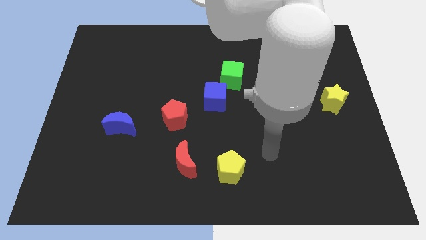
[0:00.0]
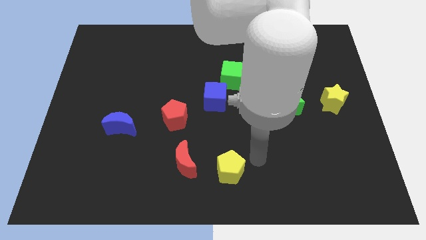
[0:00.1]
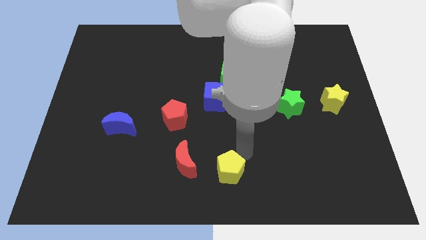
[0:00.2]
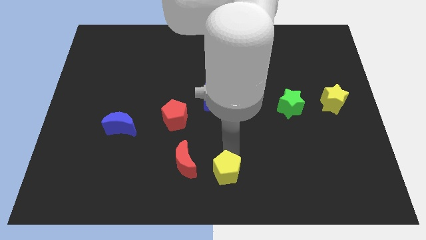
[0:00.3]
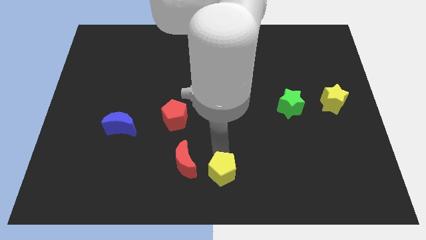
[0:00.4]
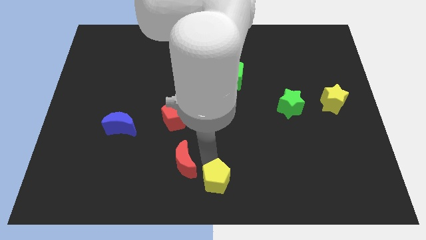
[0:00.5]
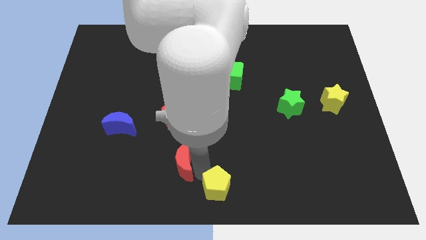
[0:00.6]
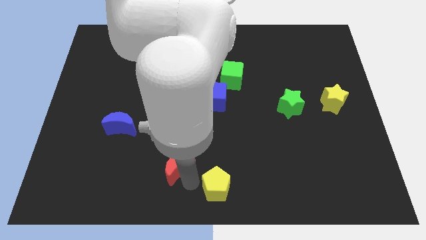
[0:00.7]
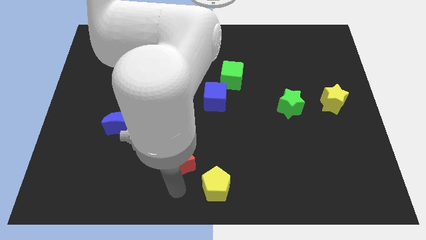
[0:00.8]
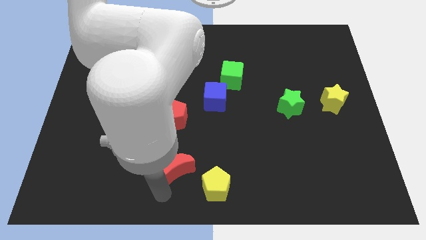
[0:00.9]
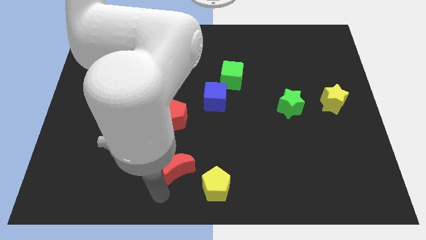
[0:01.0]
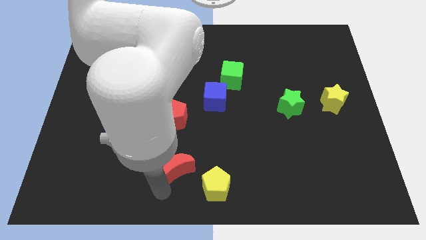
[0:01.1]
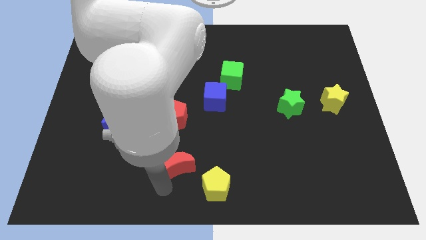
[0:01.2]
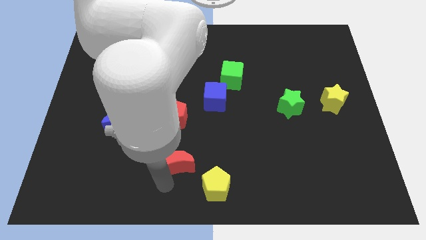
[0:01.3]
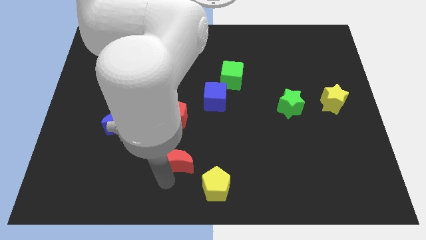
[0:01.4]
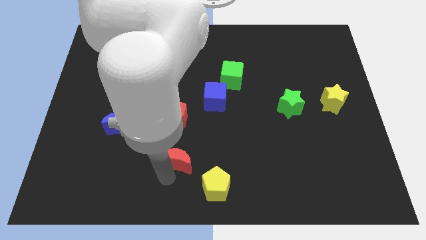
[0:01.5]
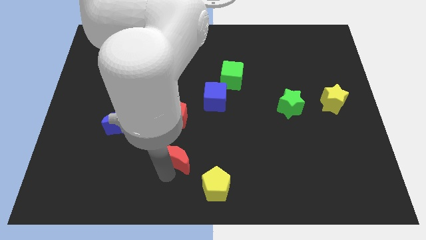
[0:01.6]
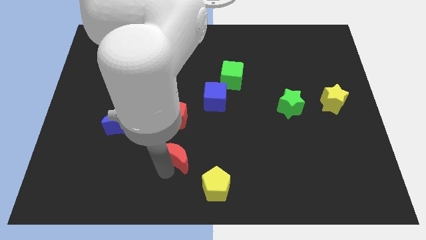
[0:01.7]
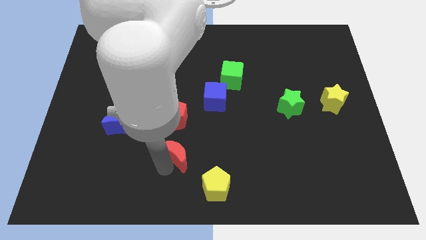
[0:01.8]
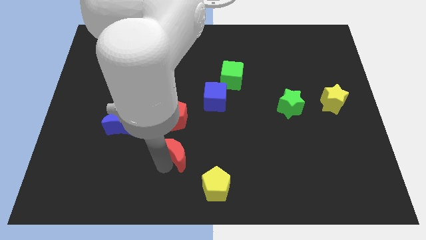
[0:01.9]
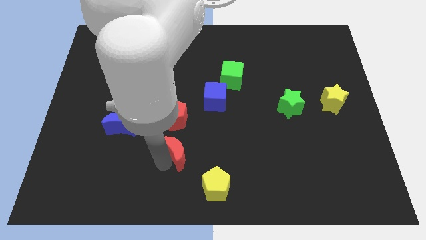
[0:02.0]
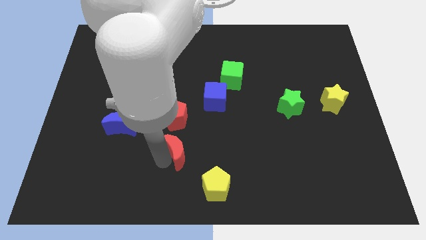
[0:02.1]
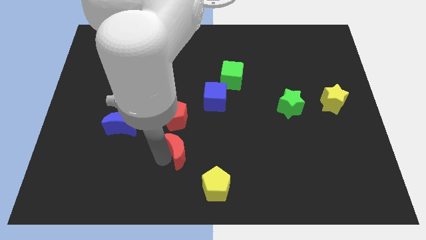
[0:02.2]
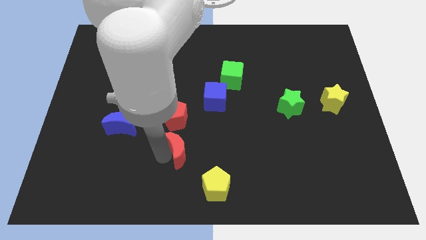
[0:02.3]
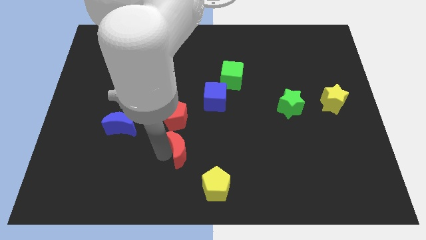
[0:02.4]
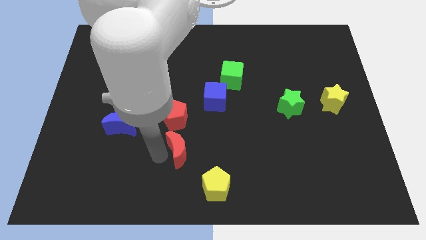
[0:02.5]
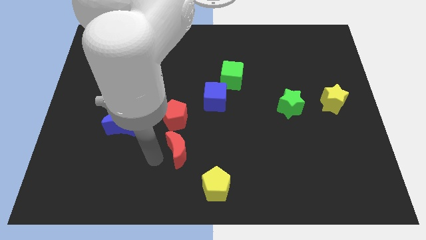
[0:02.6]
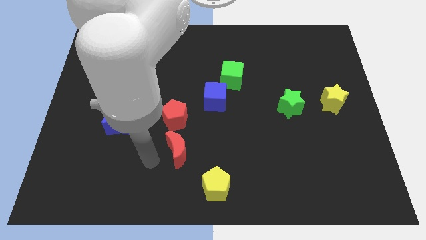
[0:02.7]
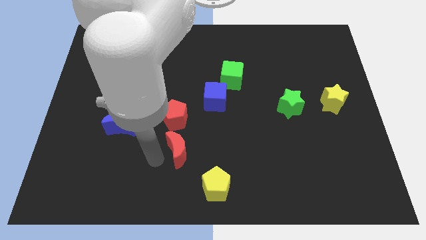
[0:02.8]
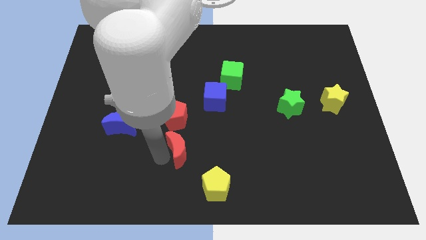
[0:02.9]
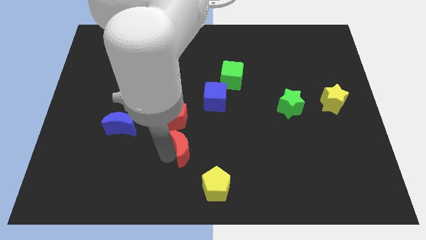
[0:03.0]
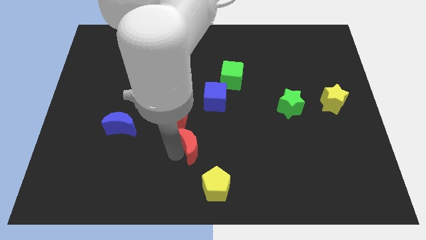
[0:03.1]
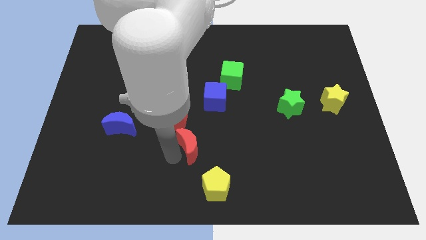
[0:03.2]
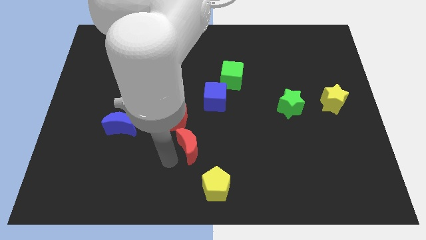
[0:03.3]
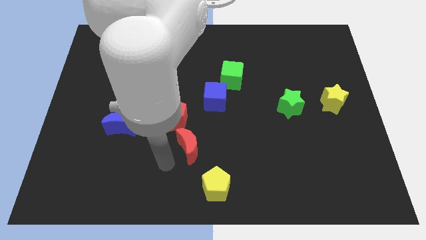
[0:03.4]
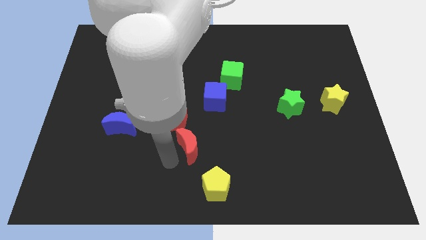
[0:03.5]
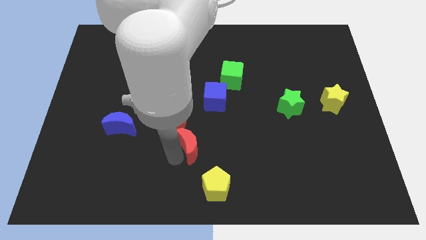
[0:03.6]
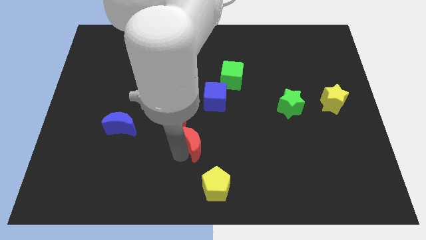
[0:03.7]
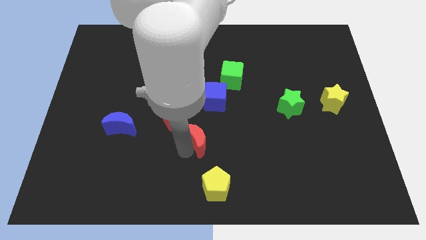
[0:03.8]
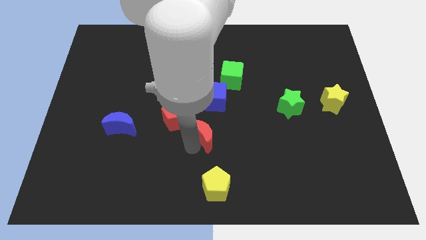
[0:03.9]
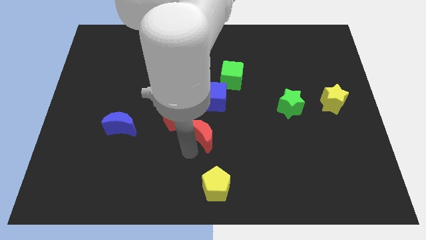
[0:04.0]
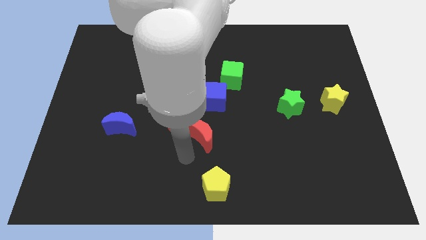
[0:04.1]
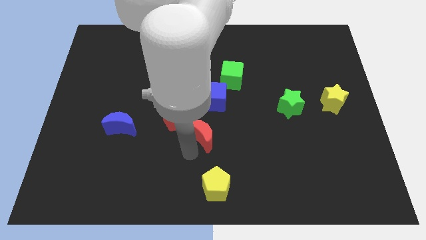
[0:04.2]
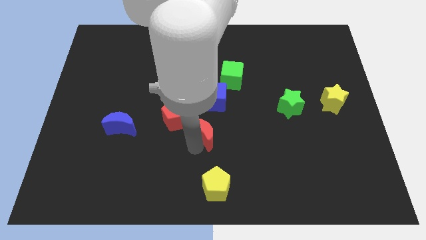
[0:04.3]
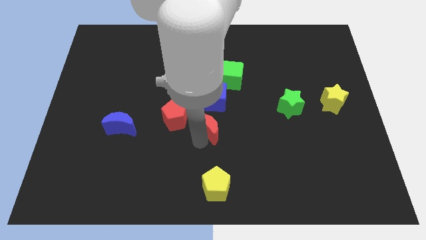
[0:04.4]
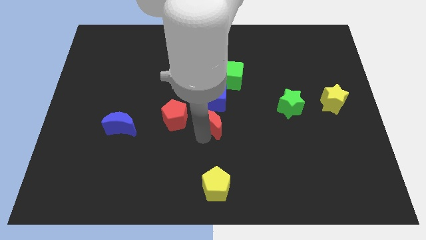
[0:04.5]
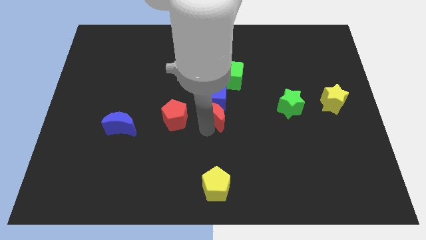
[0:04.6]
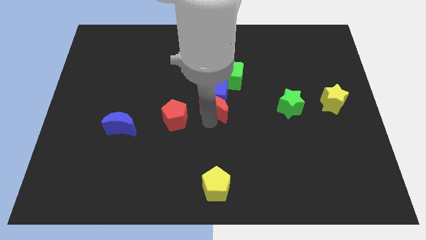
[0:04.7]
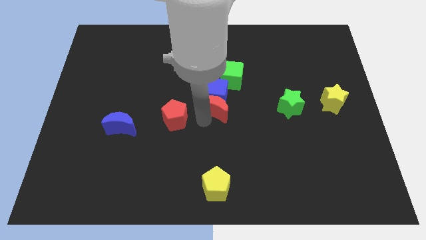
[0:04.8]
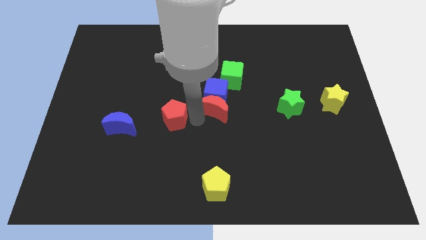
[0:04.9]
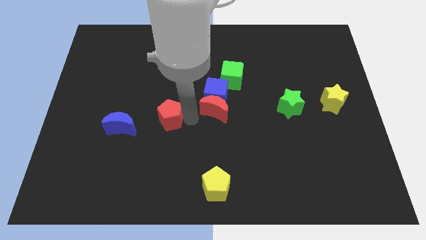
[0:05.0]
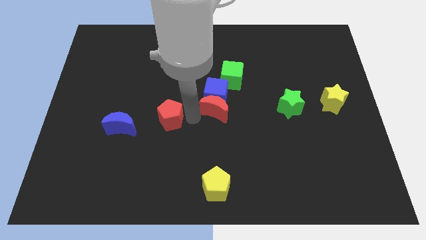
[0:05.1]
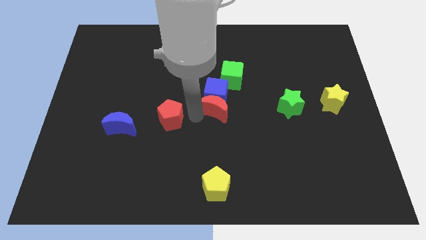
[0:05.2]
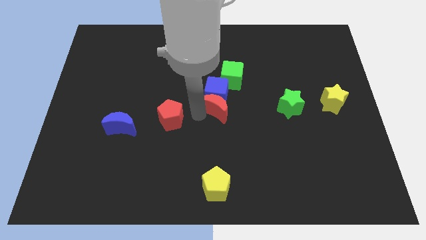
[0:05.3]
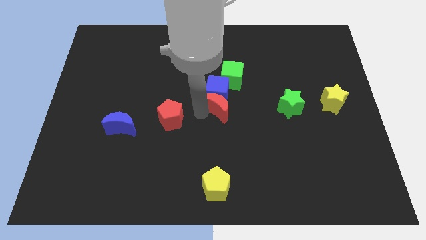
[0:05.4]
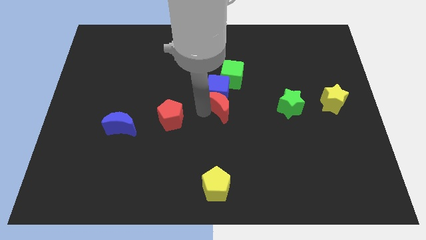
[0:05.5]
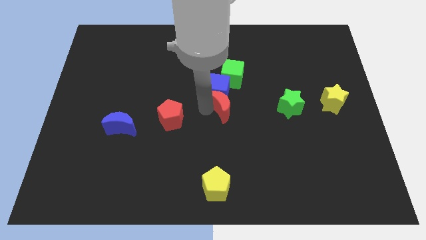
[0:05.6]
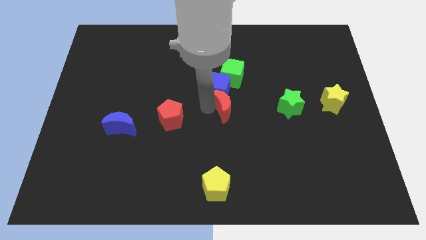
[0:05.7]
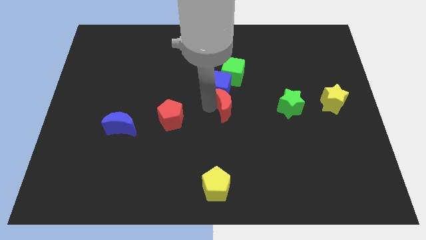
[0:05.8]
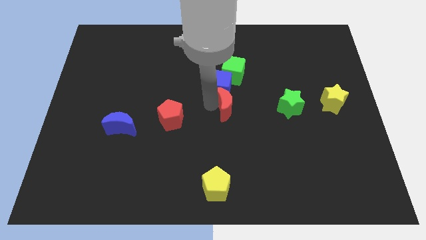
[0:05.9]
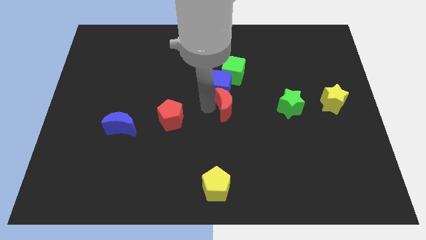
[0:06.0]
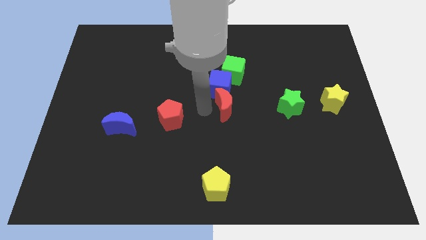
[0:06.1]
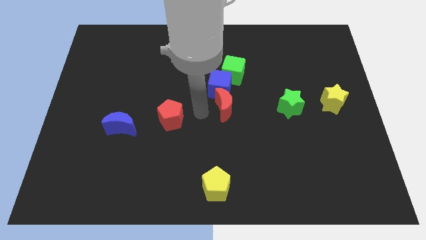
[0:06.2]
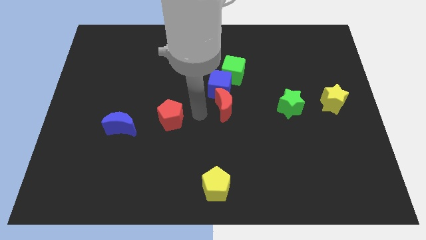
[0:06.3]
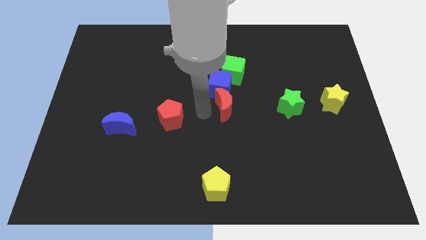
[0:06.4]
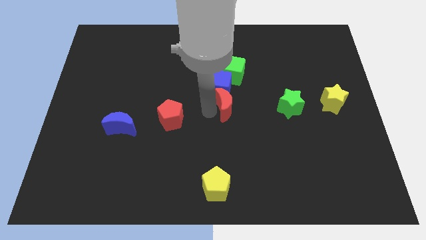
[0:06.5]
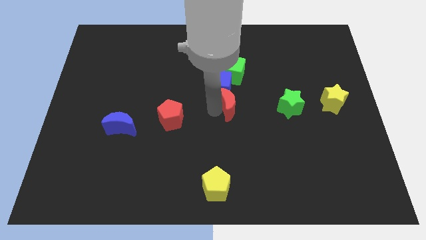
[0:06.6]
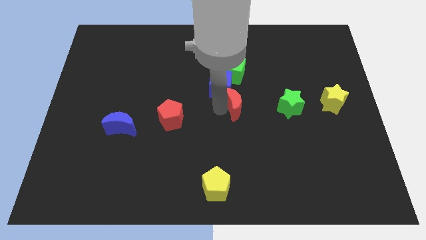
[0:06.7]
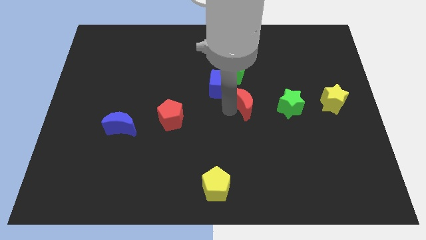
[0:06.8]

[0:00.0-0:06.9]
push the red moon upwards and to the right diagonally

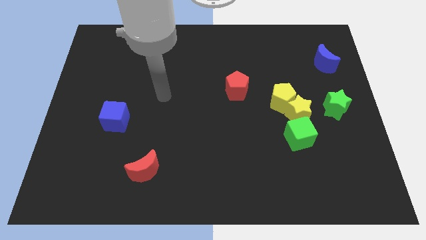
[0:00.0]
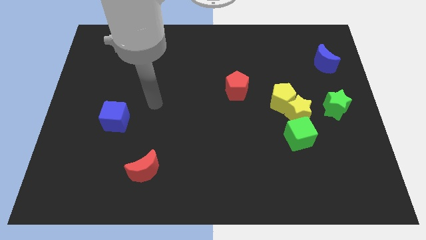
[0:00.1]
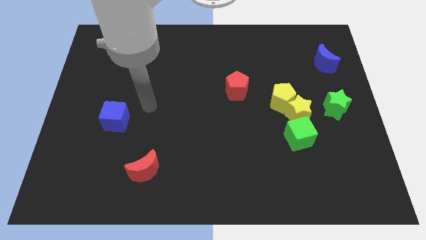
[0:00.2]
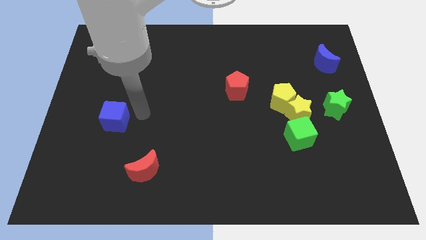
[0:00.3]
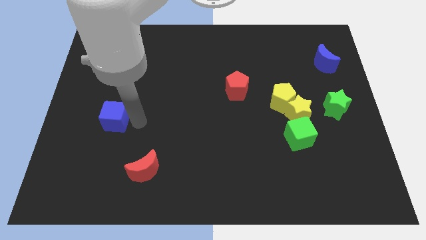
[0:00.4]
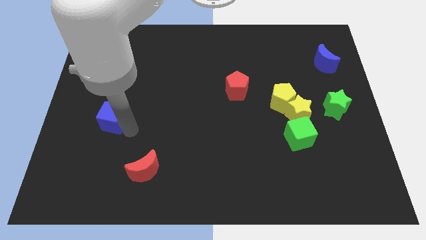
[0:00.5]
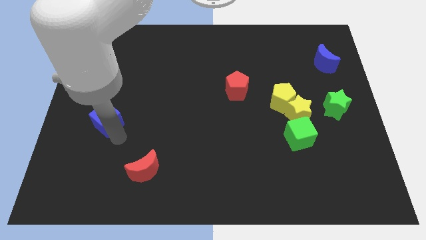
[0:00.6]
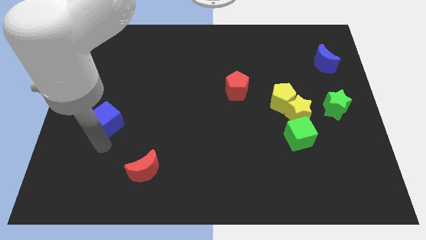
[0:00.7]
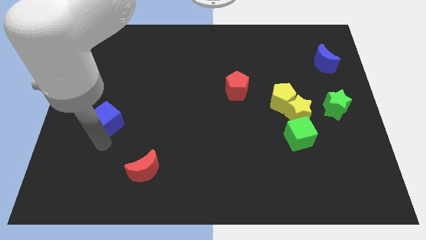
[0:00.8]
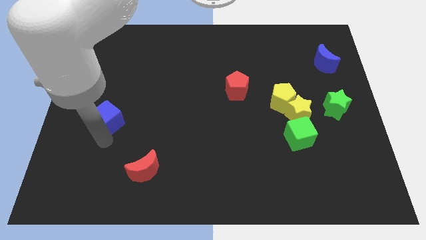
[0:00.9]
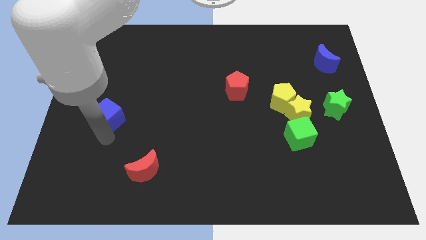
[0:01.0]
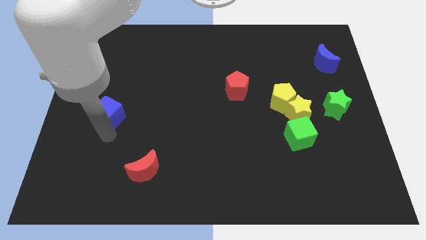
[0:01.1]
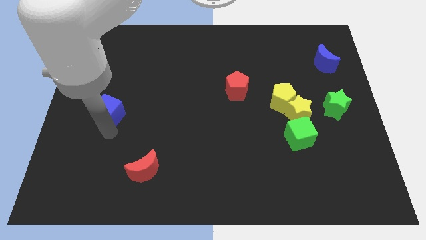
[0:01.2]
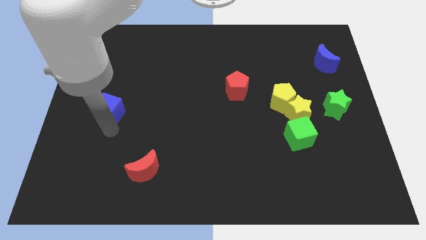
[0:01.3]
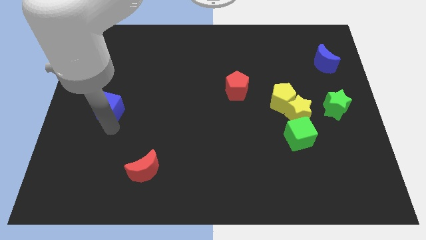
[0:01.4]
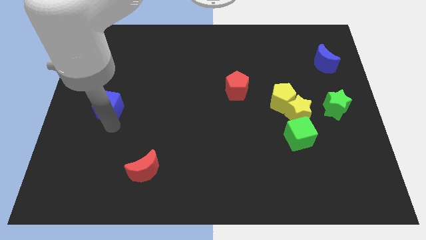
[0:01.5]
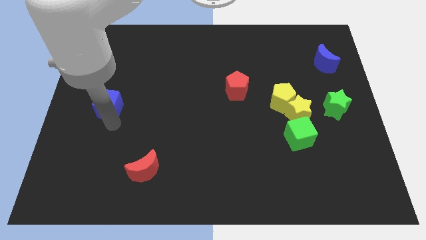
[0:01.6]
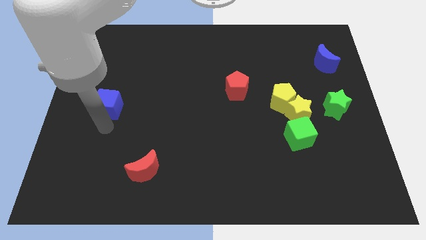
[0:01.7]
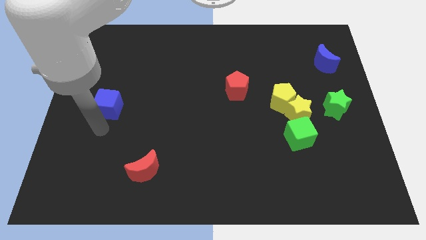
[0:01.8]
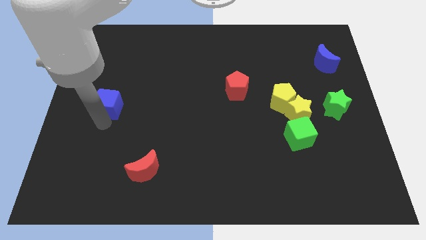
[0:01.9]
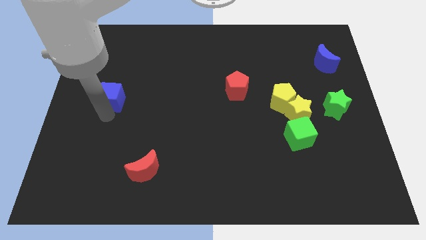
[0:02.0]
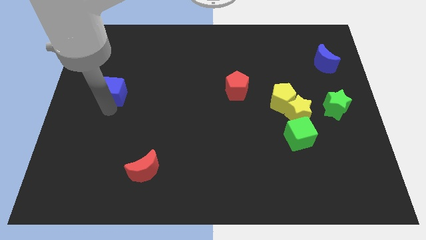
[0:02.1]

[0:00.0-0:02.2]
slightly slide the blue cube up
